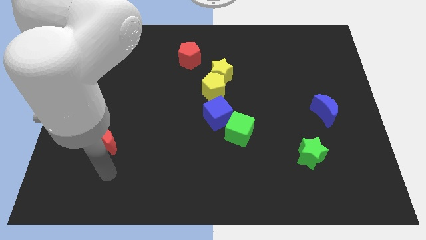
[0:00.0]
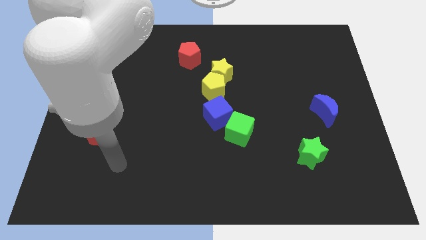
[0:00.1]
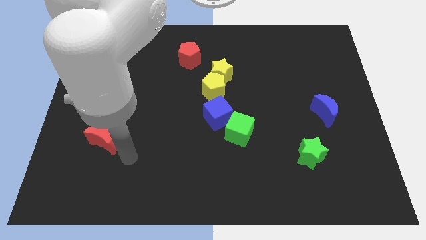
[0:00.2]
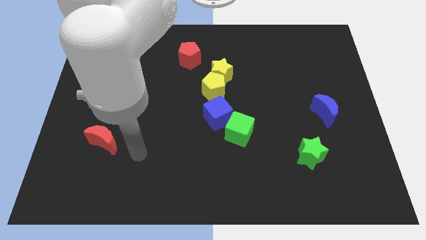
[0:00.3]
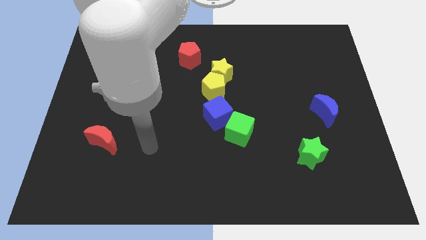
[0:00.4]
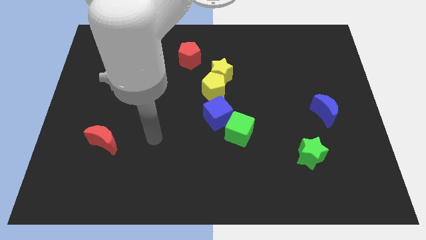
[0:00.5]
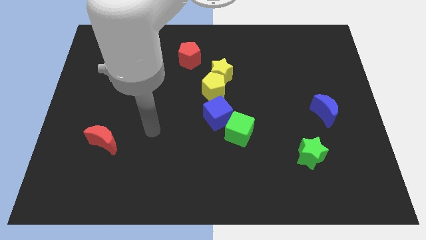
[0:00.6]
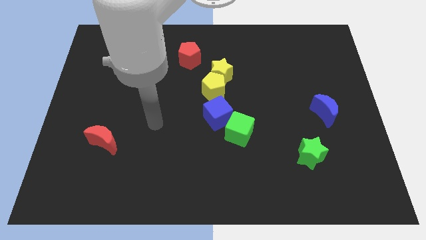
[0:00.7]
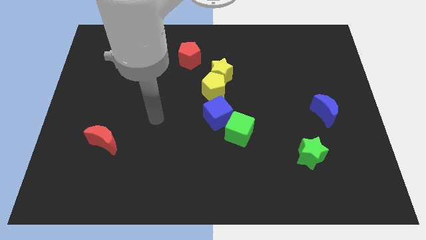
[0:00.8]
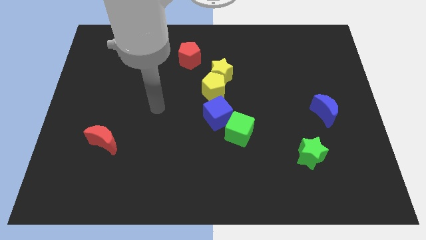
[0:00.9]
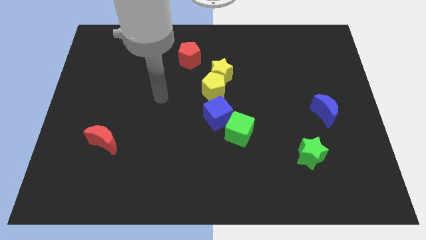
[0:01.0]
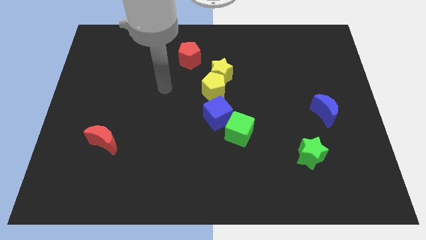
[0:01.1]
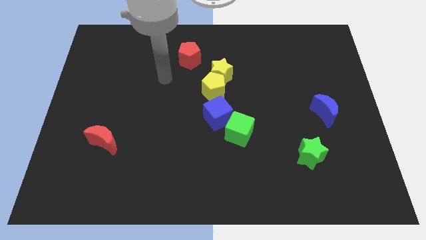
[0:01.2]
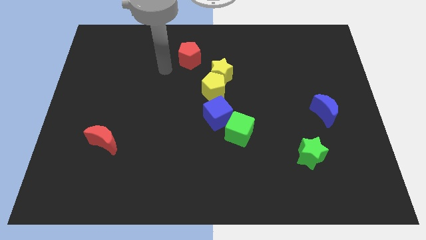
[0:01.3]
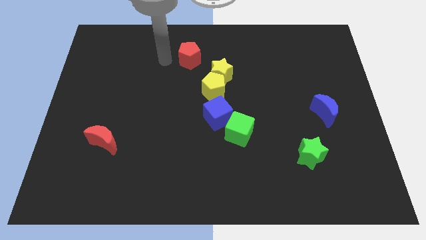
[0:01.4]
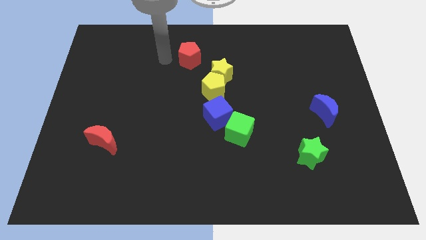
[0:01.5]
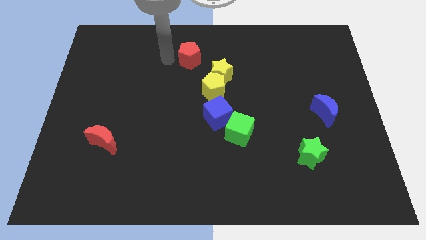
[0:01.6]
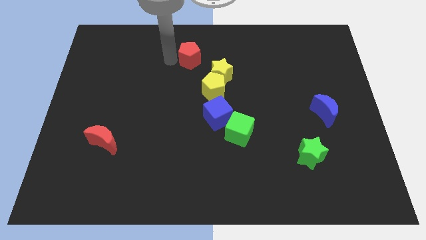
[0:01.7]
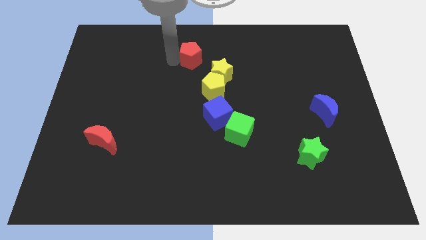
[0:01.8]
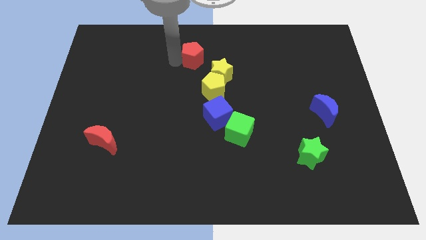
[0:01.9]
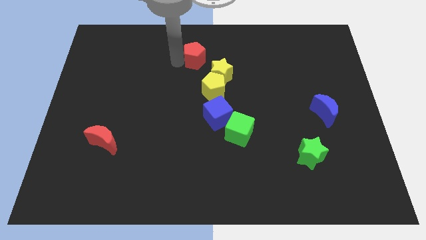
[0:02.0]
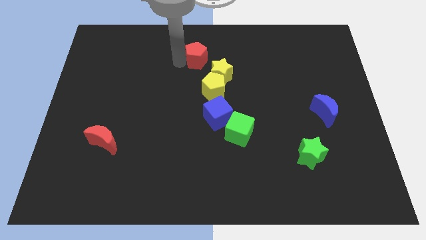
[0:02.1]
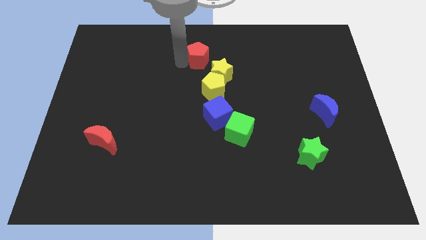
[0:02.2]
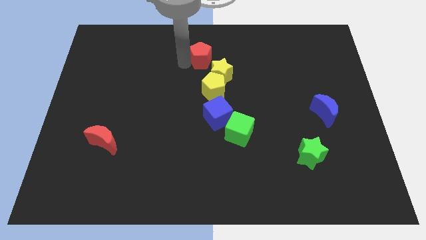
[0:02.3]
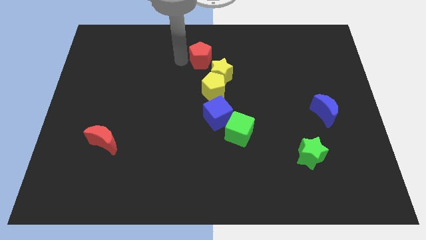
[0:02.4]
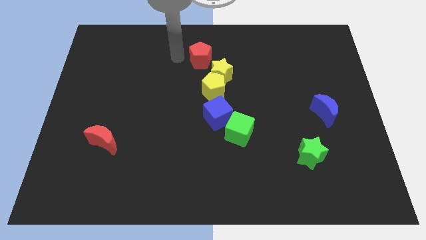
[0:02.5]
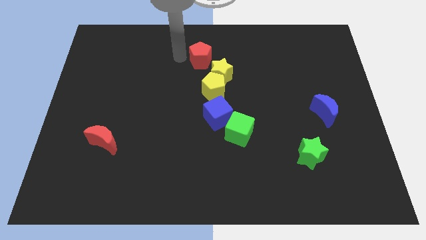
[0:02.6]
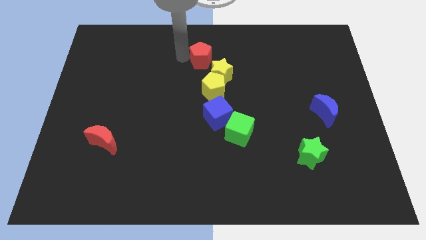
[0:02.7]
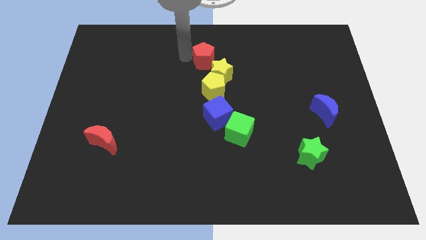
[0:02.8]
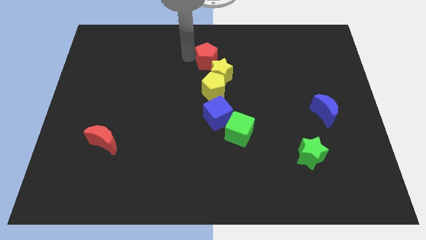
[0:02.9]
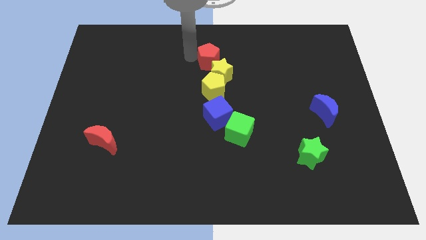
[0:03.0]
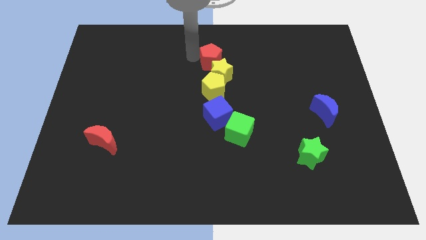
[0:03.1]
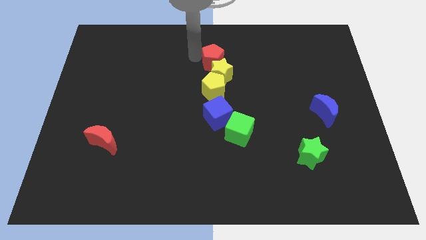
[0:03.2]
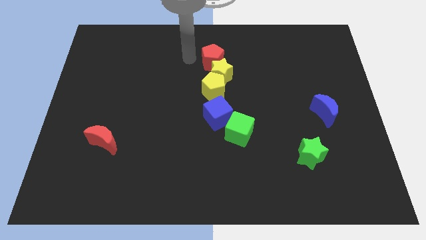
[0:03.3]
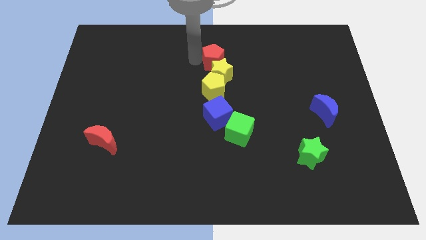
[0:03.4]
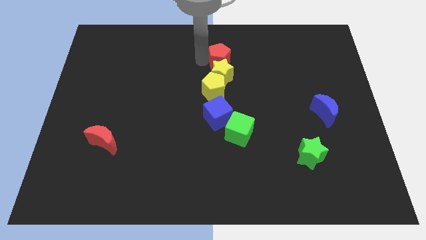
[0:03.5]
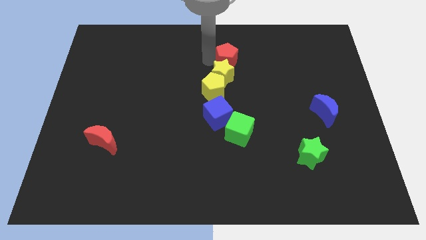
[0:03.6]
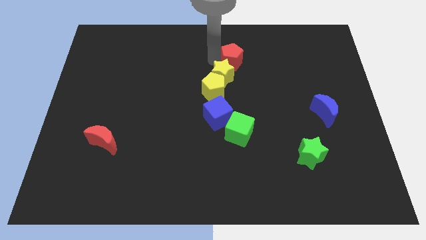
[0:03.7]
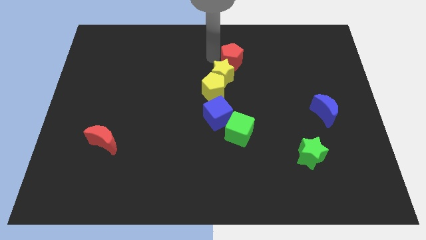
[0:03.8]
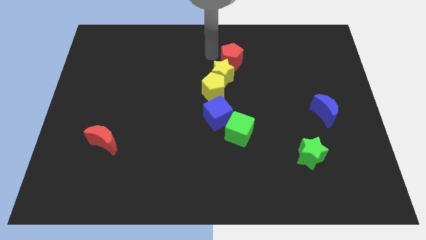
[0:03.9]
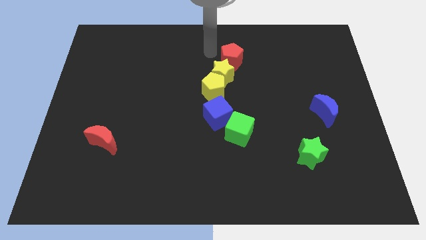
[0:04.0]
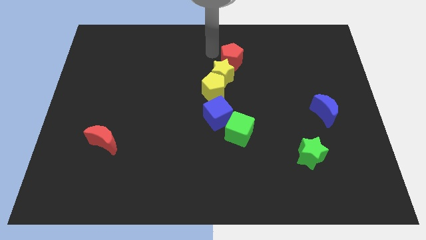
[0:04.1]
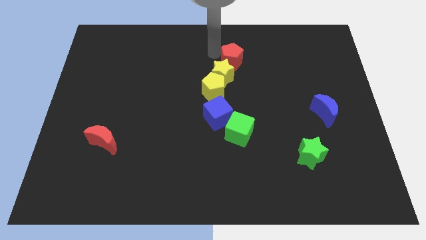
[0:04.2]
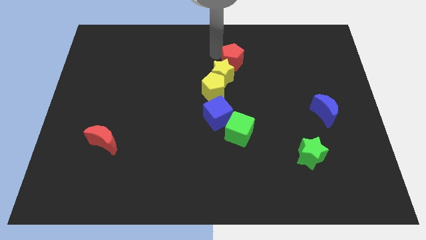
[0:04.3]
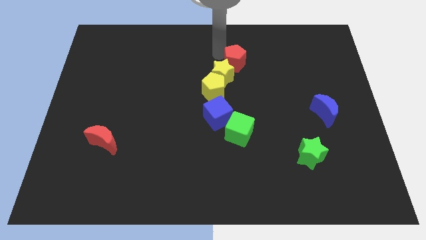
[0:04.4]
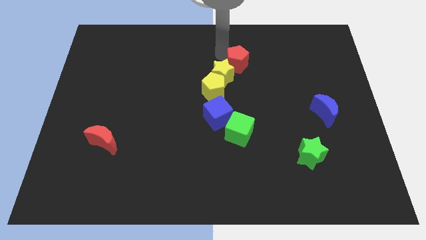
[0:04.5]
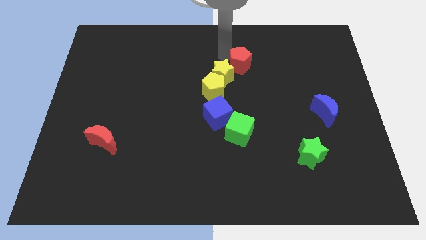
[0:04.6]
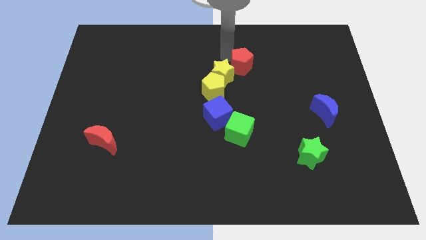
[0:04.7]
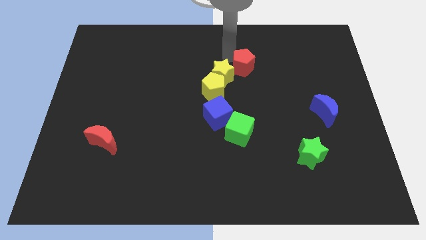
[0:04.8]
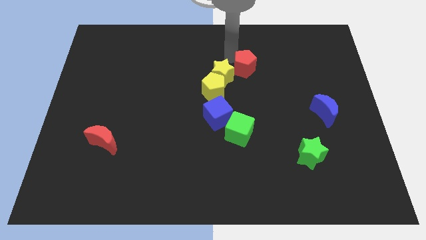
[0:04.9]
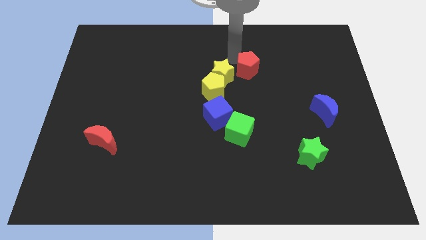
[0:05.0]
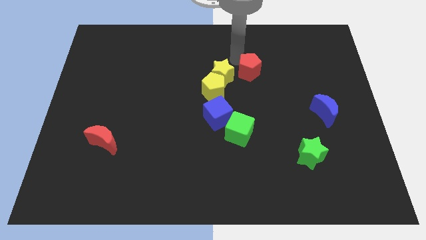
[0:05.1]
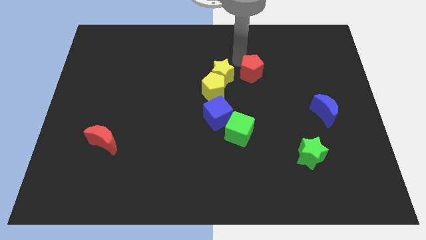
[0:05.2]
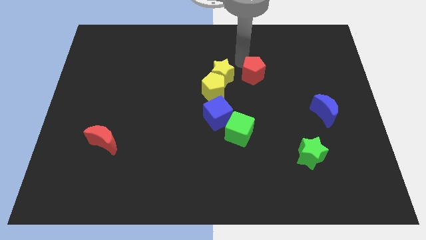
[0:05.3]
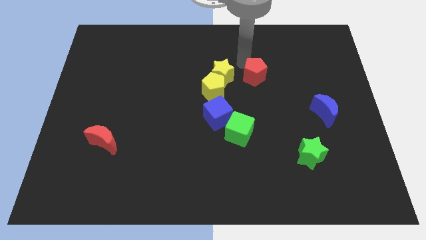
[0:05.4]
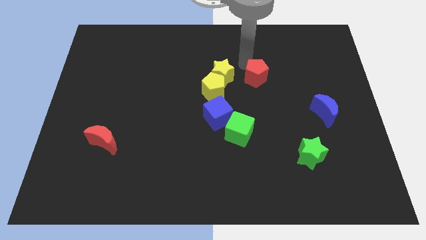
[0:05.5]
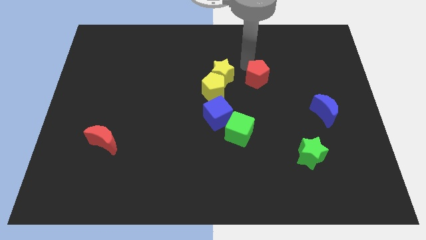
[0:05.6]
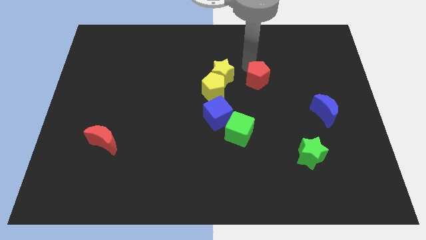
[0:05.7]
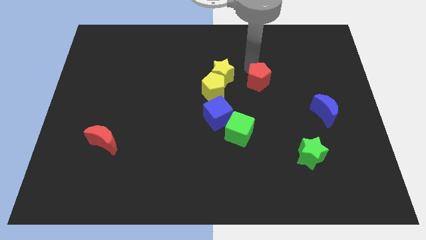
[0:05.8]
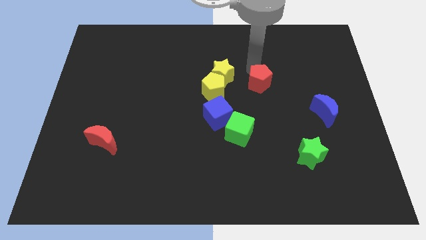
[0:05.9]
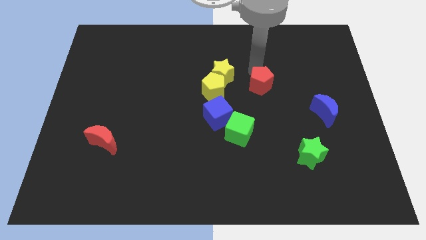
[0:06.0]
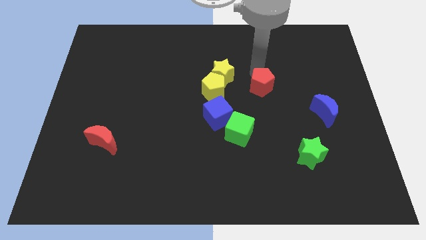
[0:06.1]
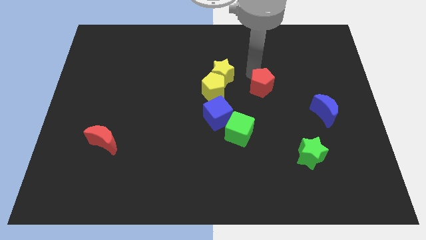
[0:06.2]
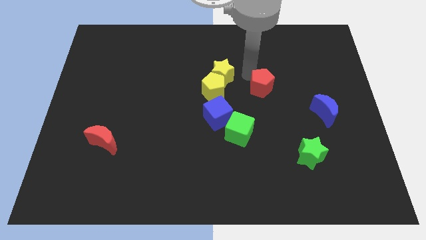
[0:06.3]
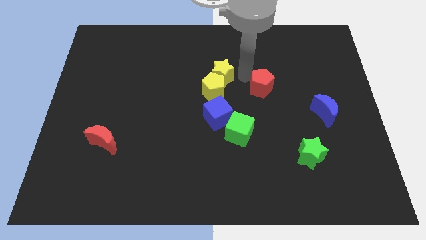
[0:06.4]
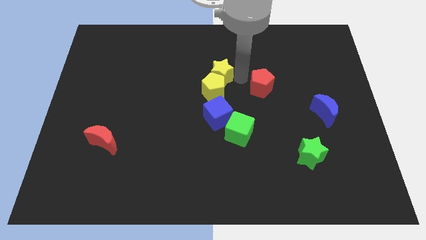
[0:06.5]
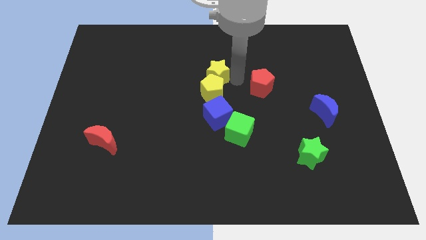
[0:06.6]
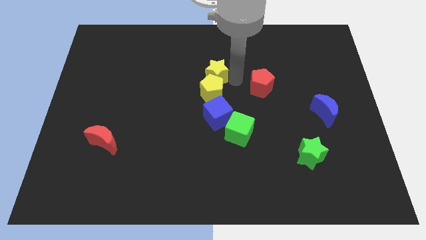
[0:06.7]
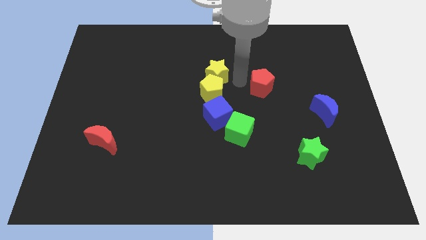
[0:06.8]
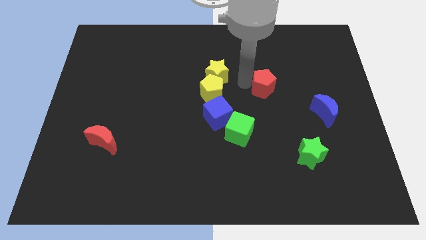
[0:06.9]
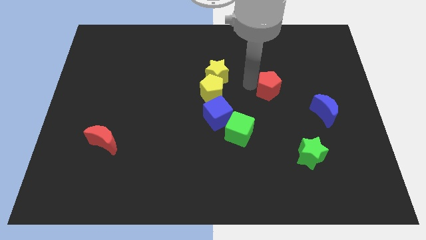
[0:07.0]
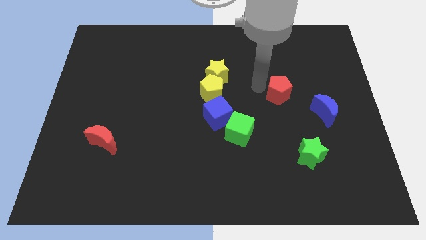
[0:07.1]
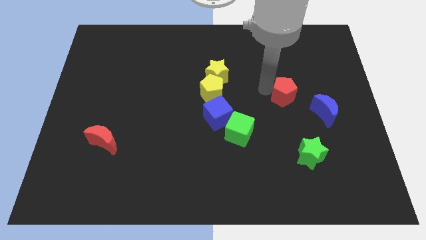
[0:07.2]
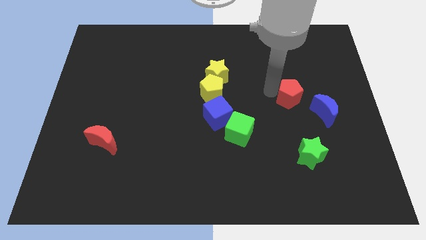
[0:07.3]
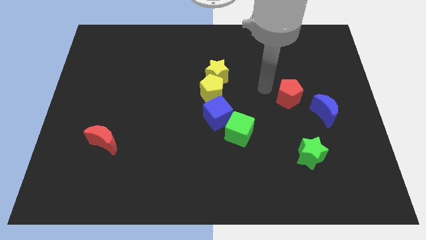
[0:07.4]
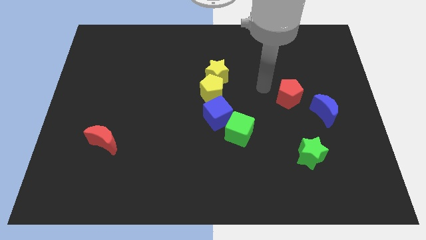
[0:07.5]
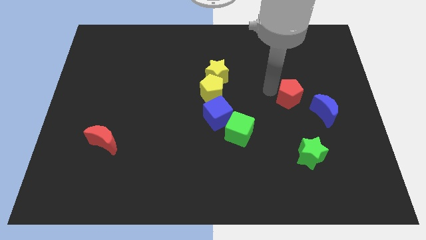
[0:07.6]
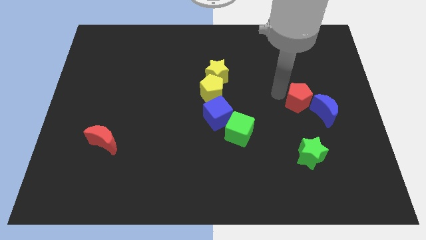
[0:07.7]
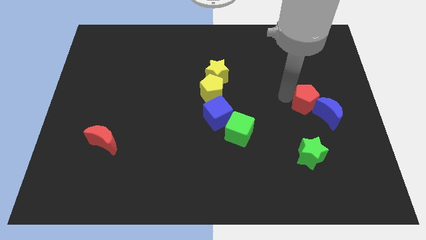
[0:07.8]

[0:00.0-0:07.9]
push the red pentagon next to the blue moon

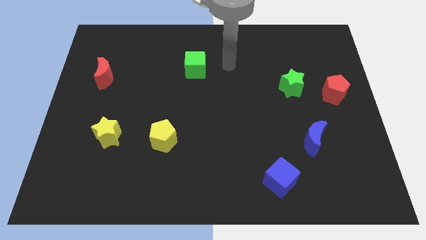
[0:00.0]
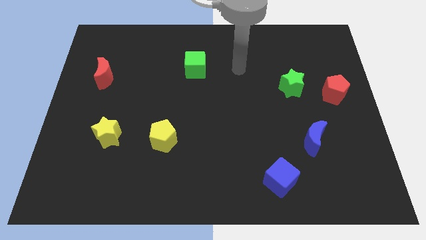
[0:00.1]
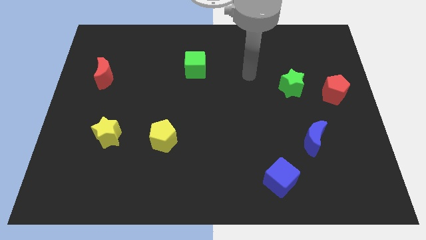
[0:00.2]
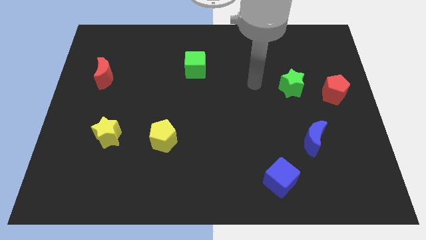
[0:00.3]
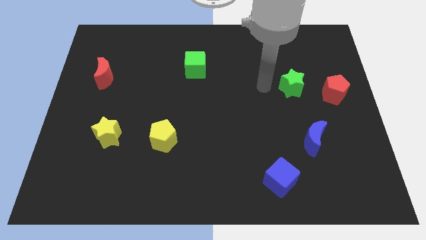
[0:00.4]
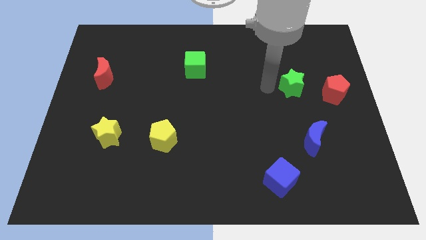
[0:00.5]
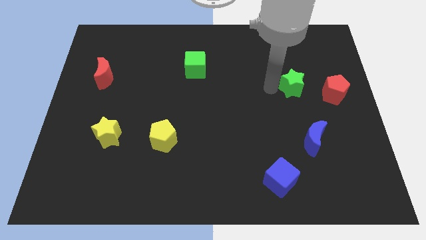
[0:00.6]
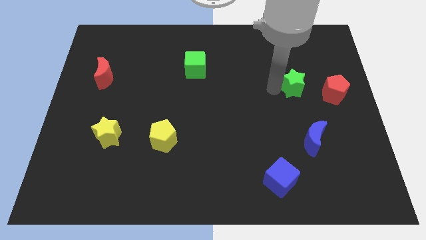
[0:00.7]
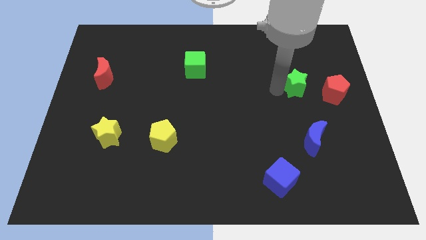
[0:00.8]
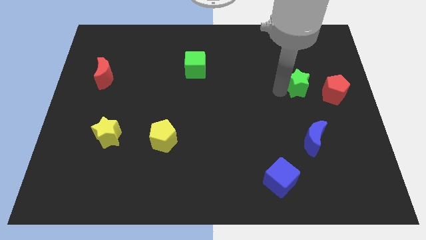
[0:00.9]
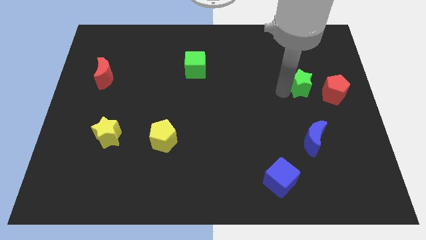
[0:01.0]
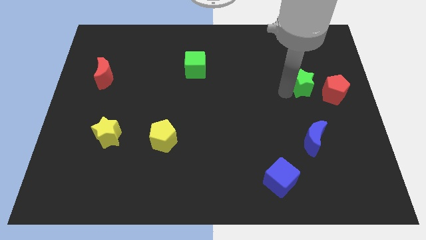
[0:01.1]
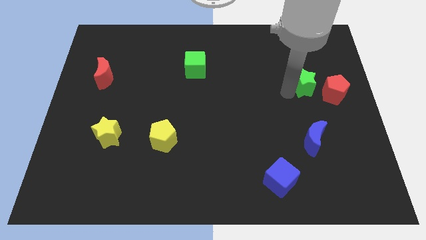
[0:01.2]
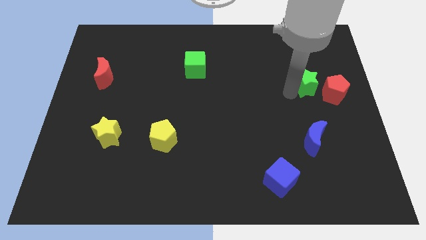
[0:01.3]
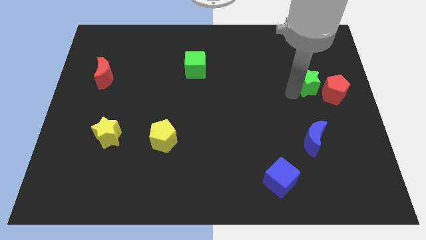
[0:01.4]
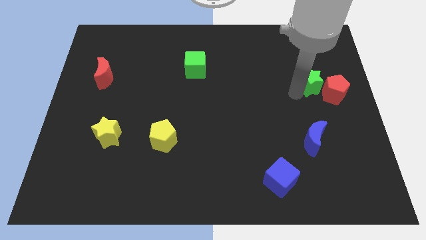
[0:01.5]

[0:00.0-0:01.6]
put the green star to the red pentagon
